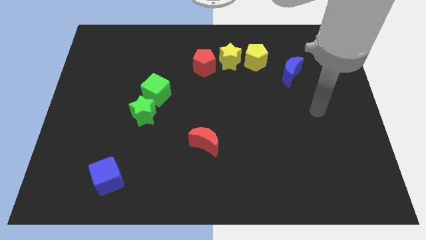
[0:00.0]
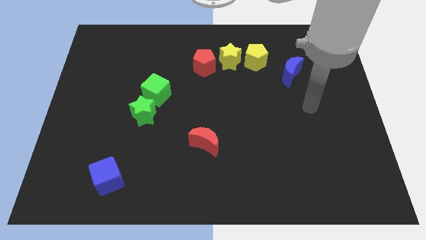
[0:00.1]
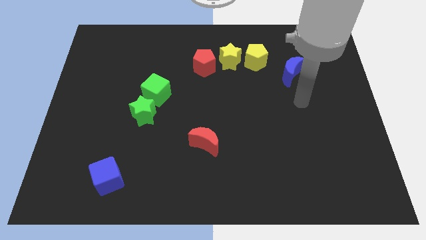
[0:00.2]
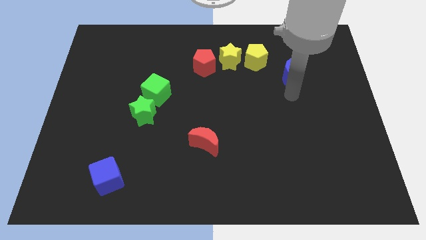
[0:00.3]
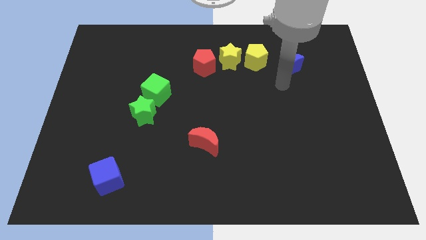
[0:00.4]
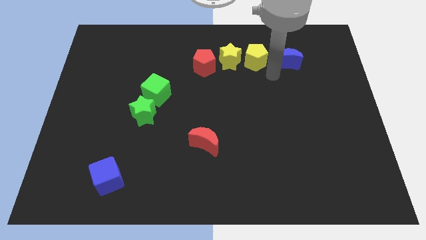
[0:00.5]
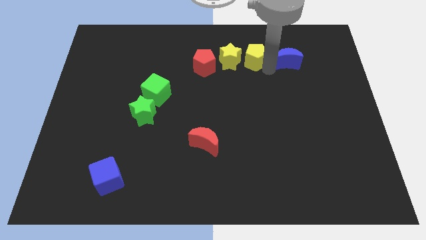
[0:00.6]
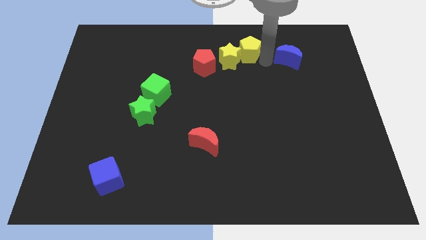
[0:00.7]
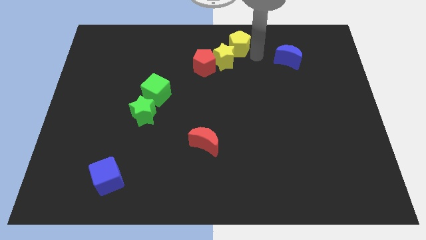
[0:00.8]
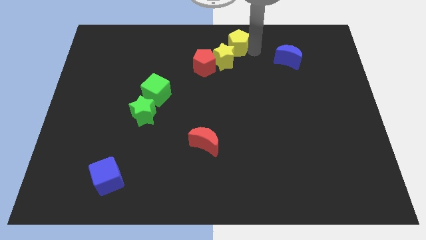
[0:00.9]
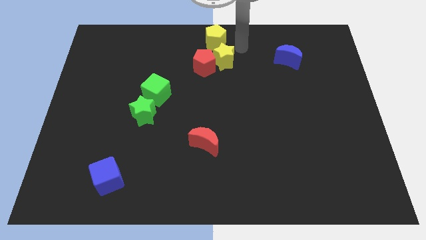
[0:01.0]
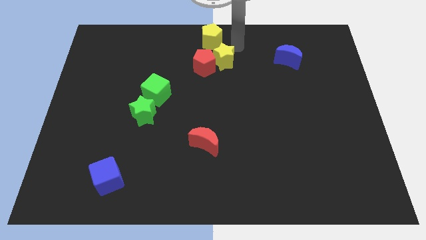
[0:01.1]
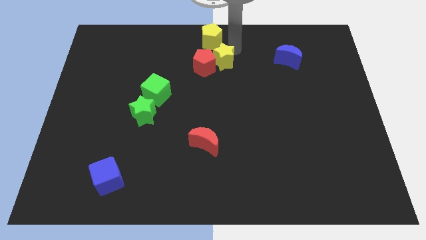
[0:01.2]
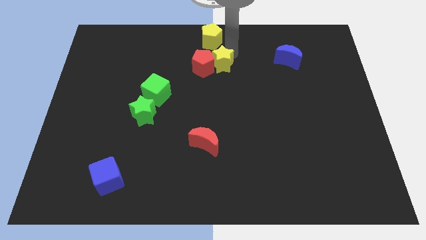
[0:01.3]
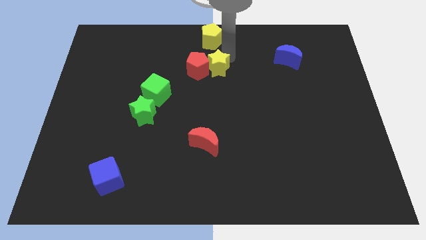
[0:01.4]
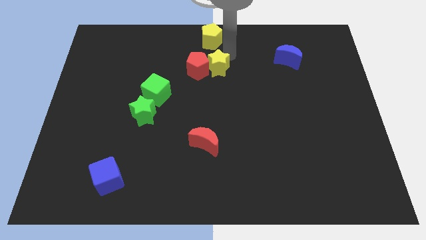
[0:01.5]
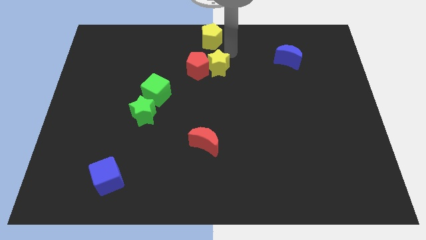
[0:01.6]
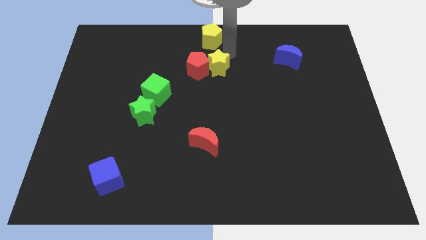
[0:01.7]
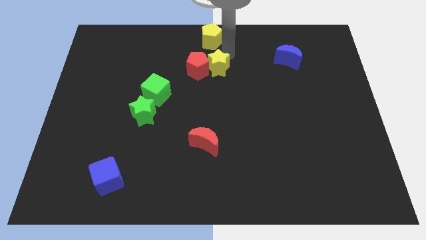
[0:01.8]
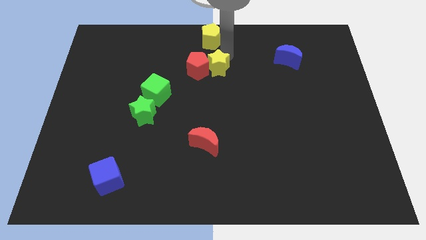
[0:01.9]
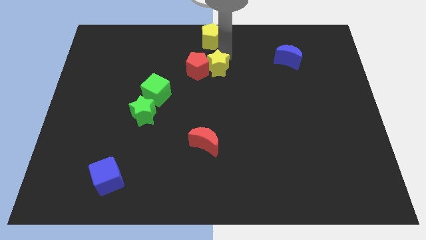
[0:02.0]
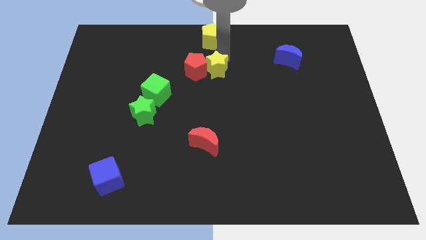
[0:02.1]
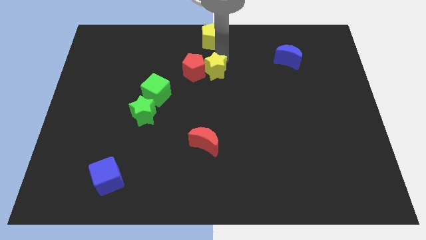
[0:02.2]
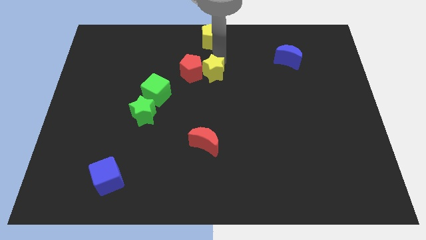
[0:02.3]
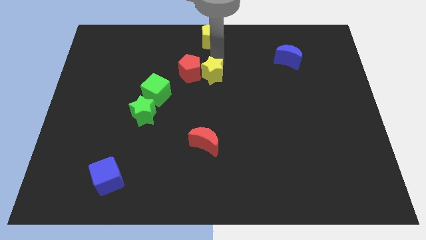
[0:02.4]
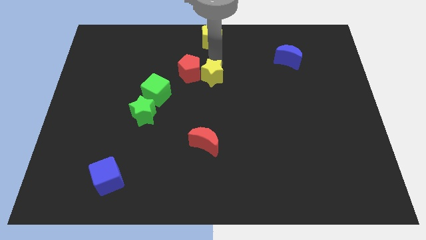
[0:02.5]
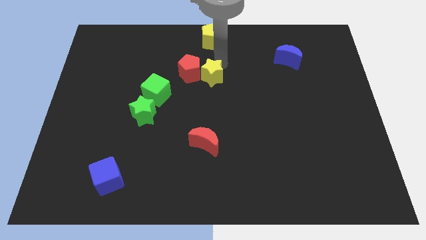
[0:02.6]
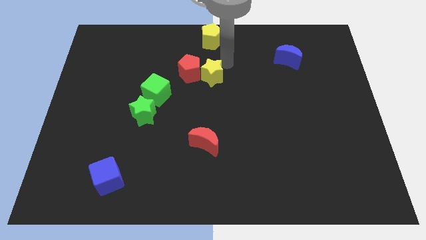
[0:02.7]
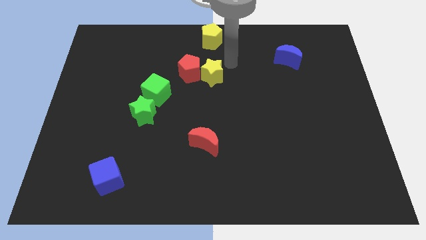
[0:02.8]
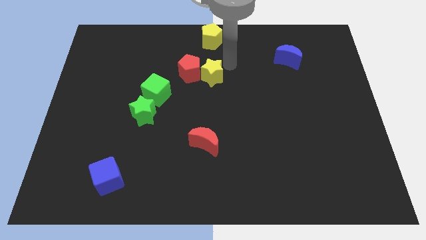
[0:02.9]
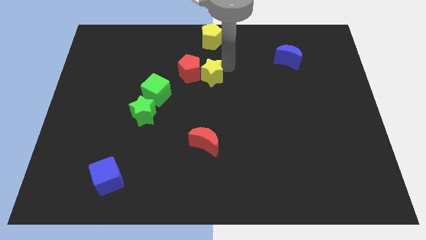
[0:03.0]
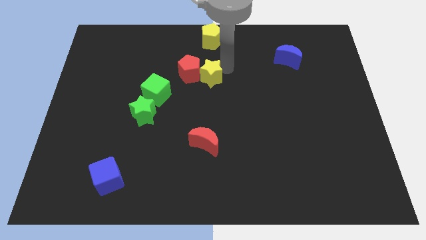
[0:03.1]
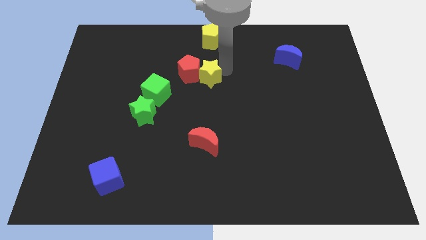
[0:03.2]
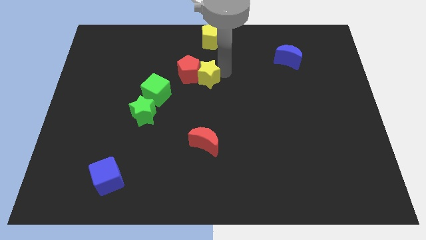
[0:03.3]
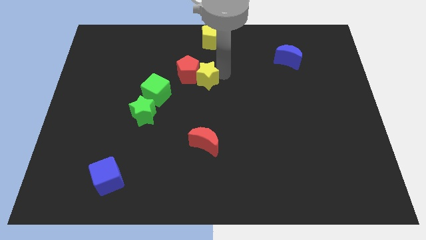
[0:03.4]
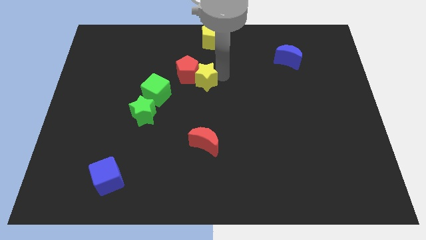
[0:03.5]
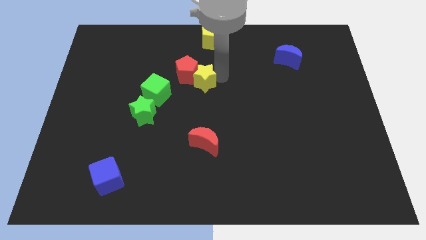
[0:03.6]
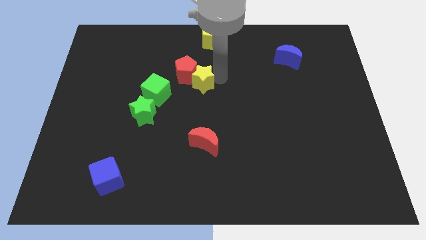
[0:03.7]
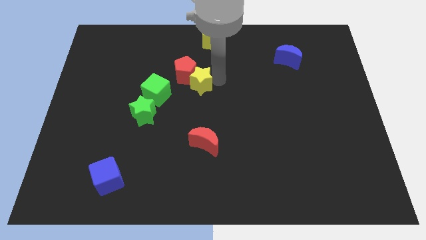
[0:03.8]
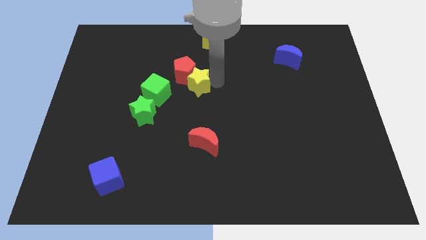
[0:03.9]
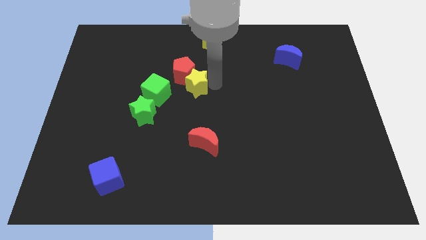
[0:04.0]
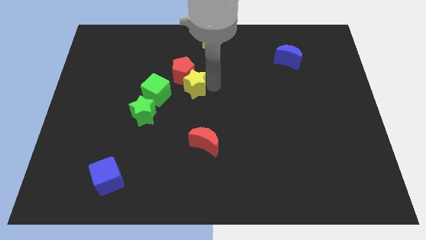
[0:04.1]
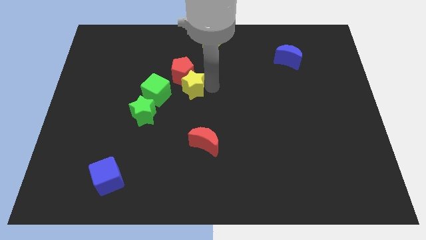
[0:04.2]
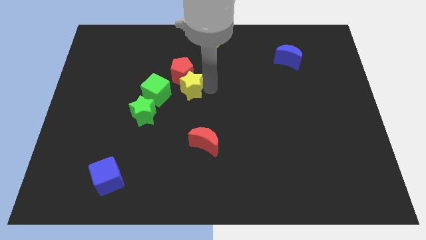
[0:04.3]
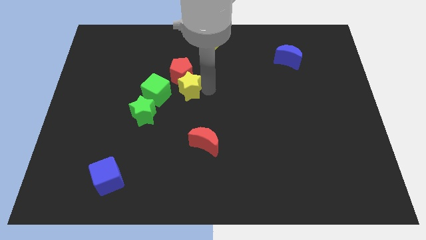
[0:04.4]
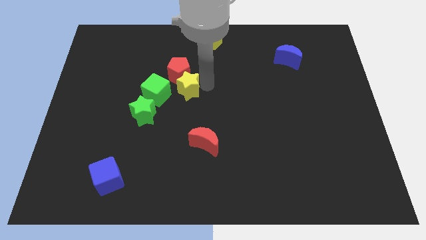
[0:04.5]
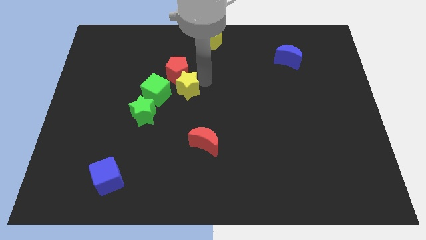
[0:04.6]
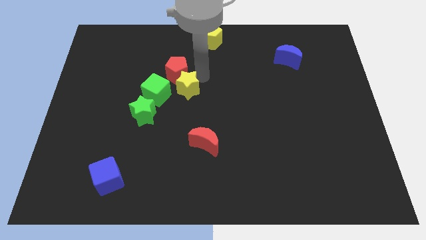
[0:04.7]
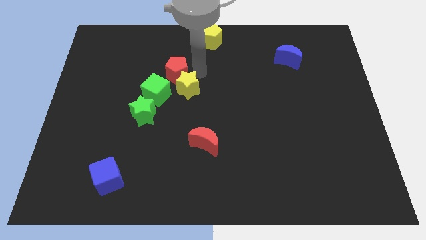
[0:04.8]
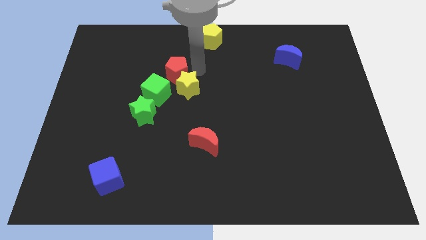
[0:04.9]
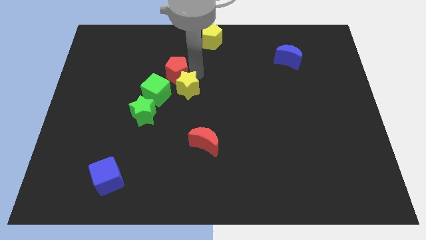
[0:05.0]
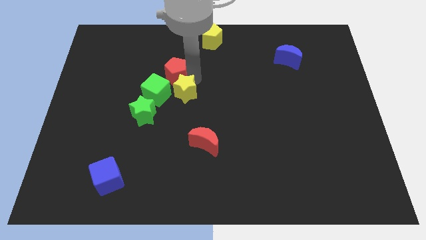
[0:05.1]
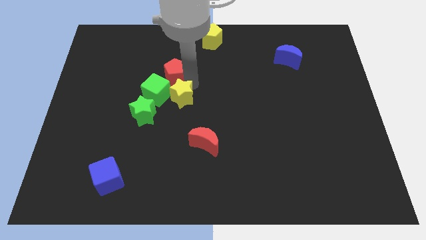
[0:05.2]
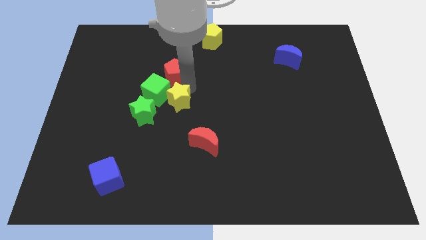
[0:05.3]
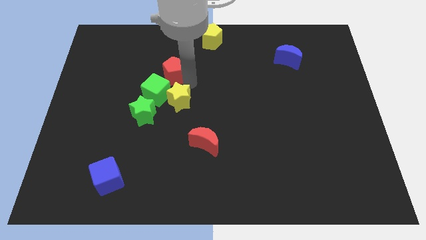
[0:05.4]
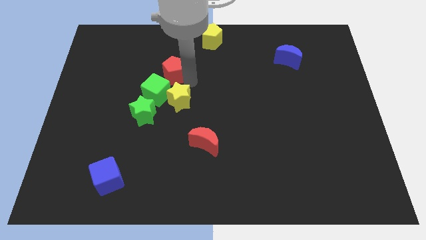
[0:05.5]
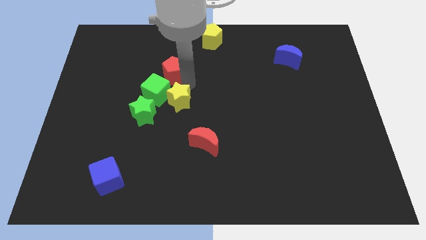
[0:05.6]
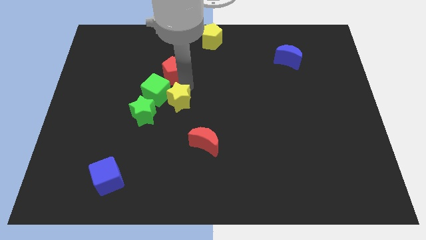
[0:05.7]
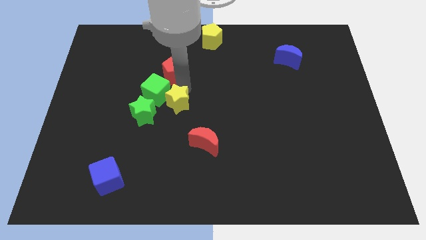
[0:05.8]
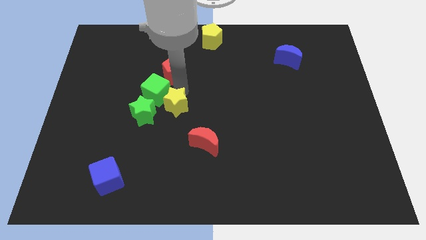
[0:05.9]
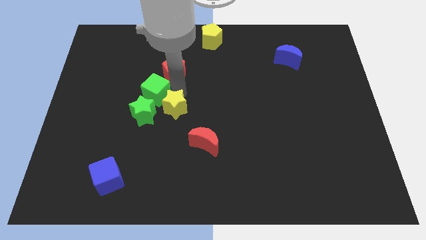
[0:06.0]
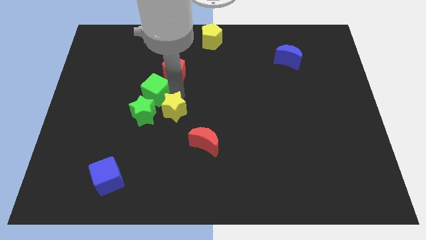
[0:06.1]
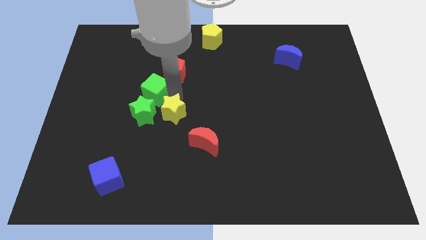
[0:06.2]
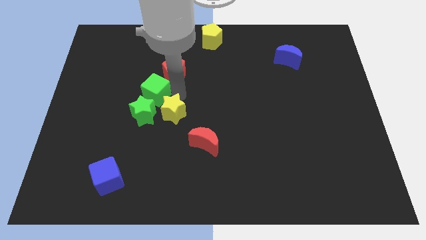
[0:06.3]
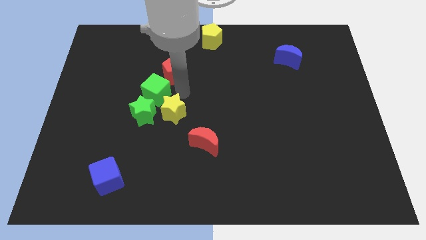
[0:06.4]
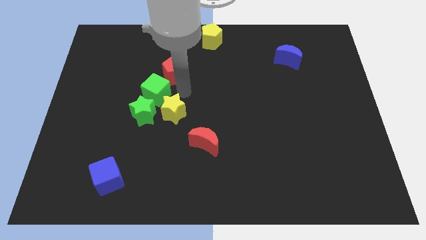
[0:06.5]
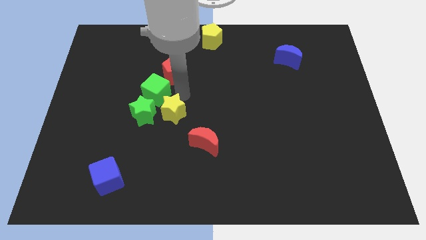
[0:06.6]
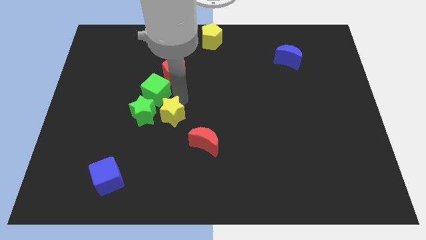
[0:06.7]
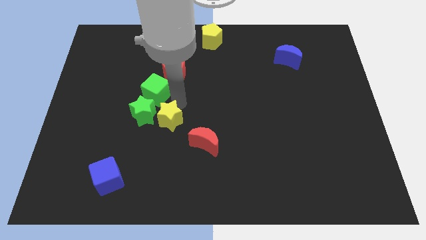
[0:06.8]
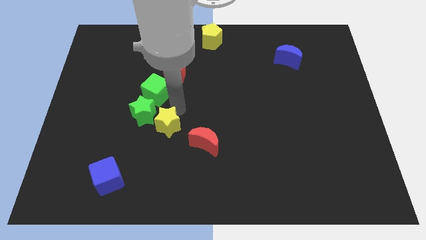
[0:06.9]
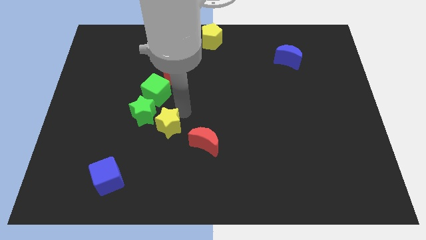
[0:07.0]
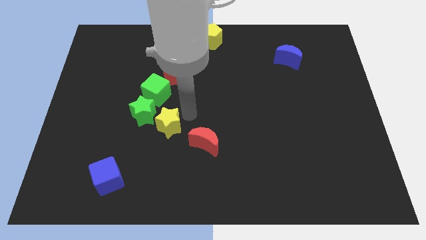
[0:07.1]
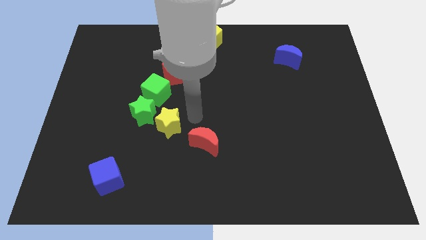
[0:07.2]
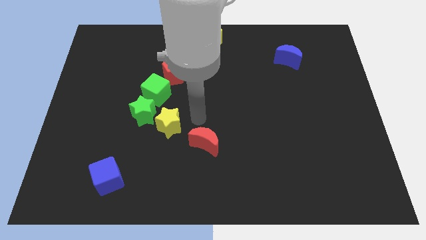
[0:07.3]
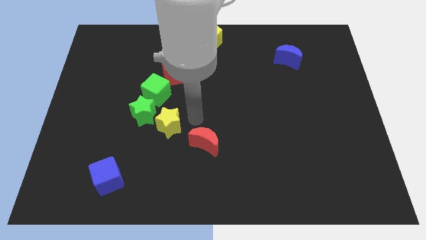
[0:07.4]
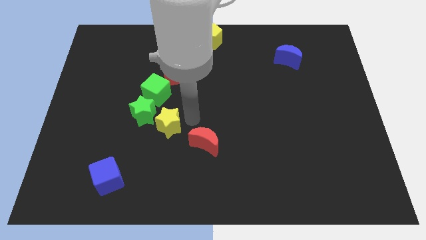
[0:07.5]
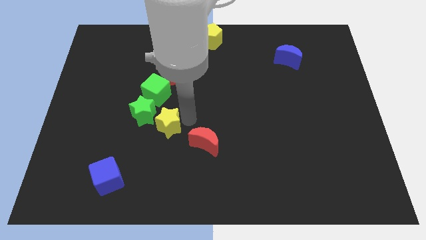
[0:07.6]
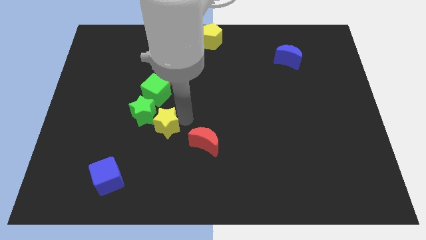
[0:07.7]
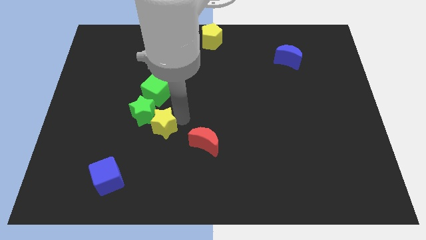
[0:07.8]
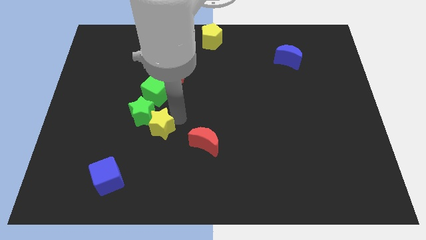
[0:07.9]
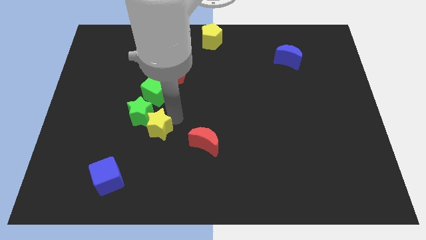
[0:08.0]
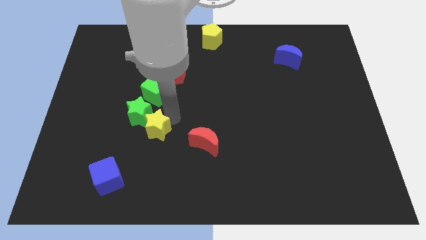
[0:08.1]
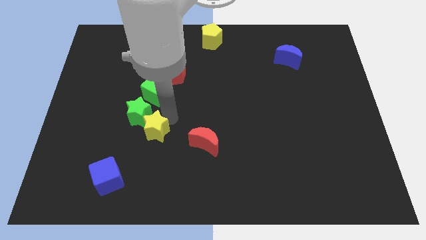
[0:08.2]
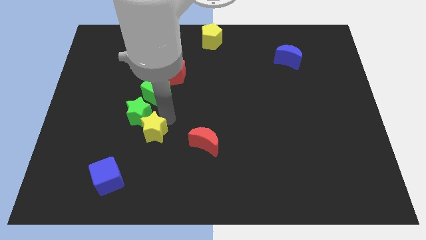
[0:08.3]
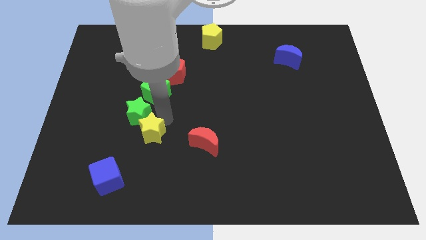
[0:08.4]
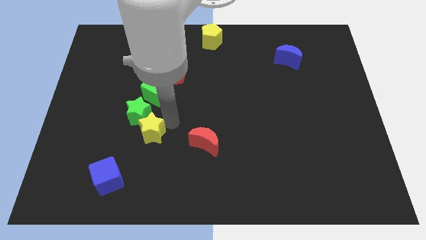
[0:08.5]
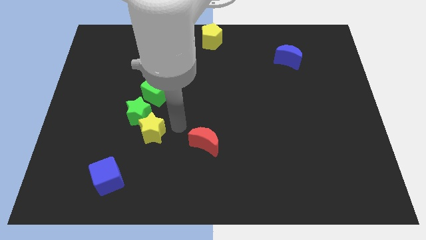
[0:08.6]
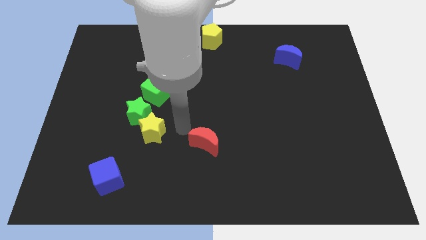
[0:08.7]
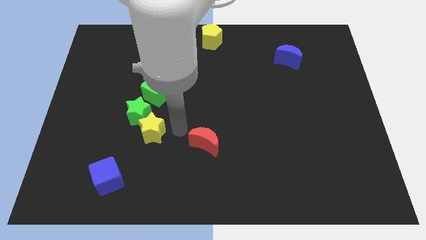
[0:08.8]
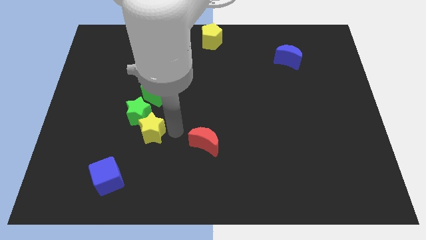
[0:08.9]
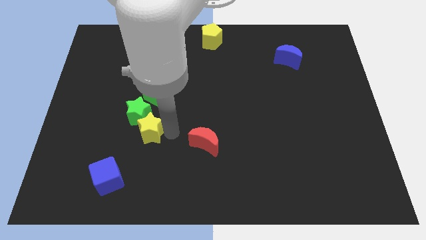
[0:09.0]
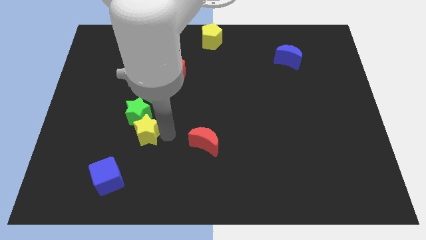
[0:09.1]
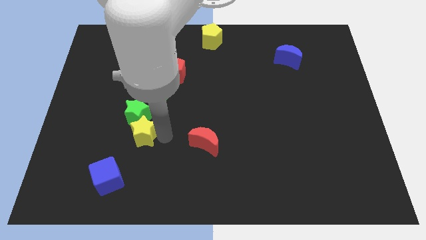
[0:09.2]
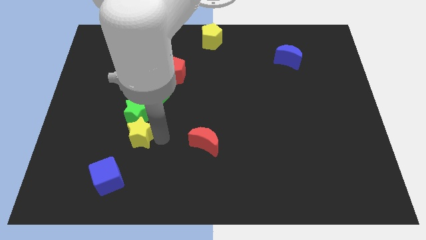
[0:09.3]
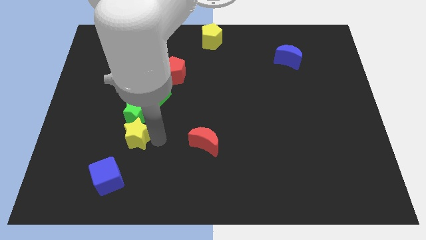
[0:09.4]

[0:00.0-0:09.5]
slide the yellow star to the top side of the blue cube
